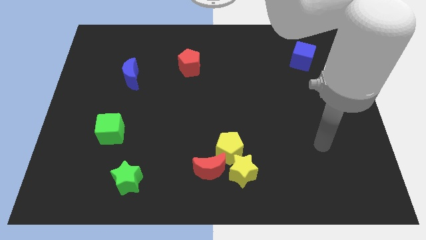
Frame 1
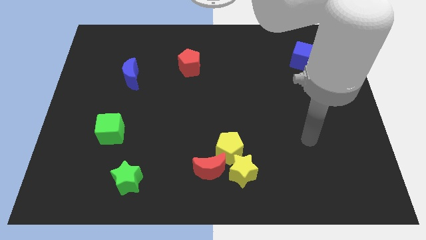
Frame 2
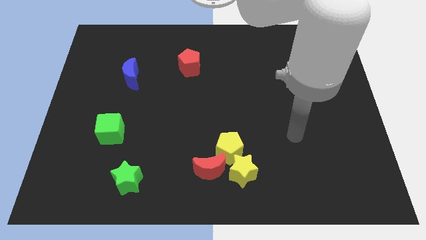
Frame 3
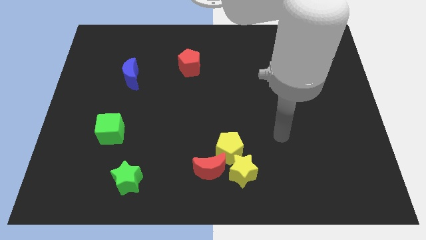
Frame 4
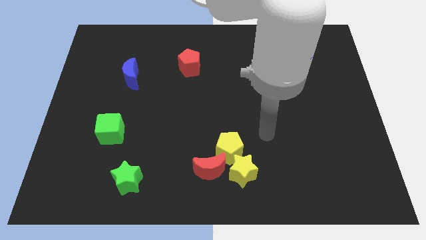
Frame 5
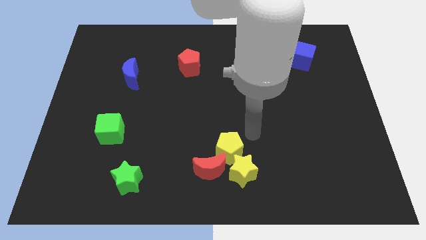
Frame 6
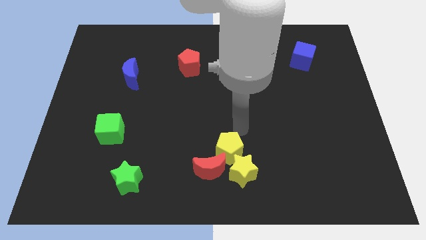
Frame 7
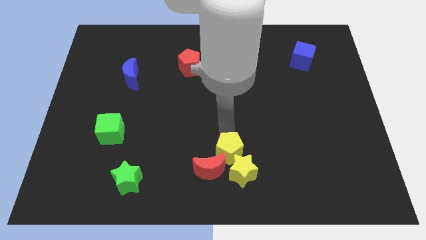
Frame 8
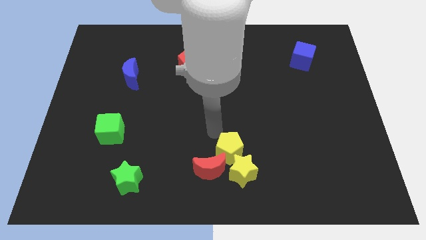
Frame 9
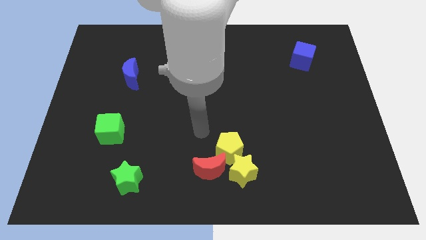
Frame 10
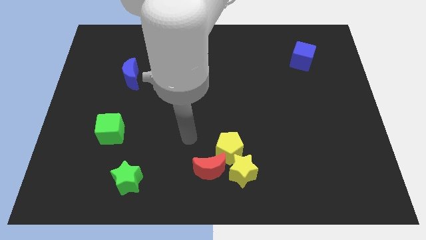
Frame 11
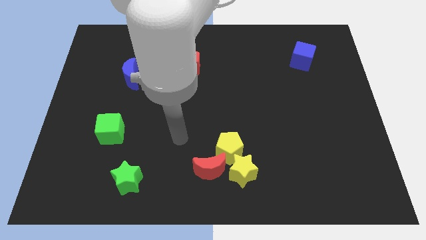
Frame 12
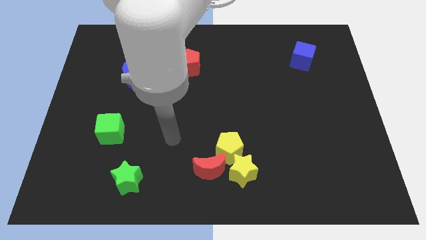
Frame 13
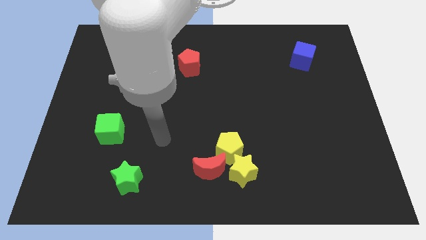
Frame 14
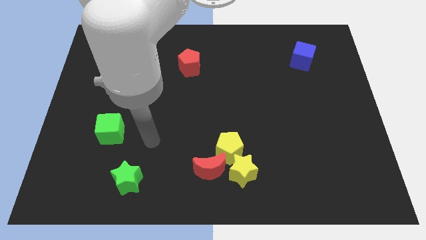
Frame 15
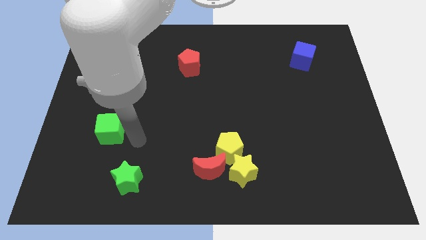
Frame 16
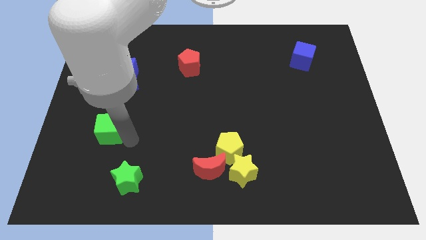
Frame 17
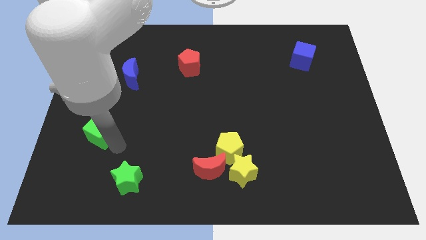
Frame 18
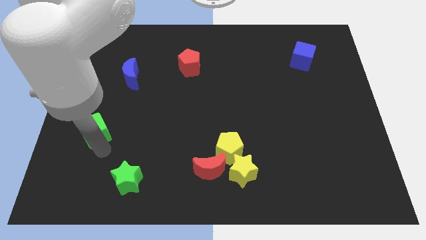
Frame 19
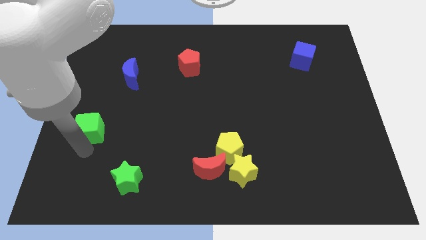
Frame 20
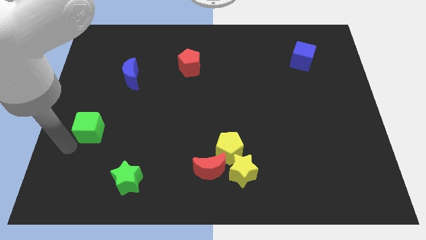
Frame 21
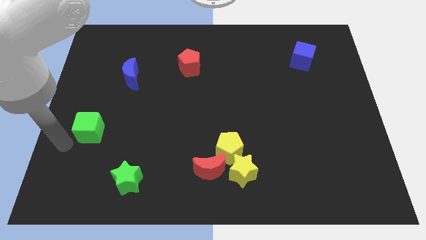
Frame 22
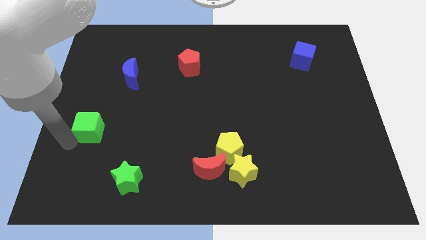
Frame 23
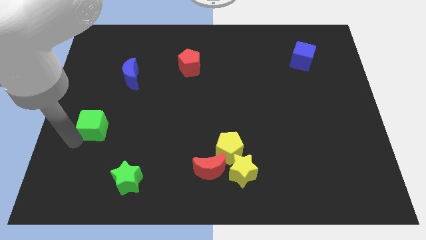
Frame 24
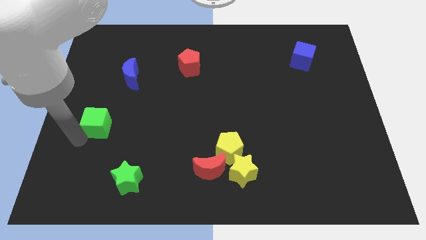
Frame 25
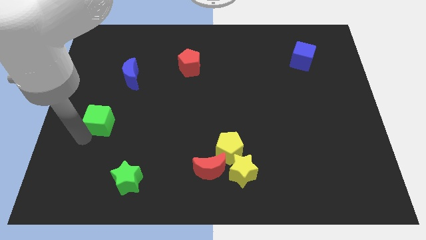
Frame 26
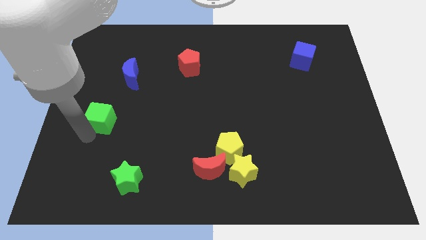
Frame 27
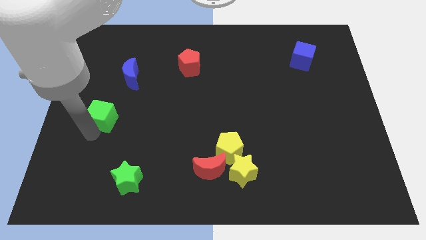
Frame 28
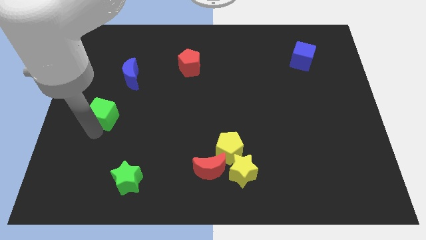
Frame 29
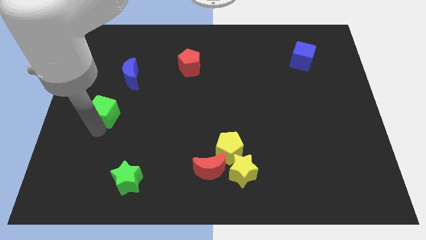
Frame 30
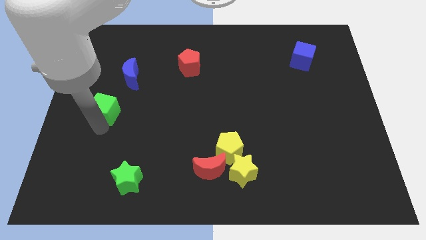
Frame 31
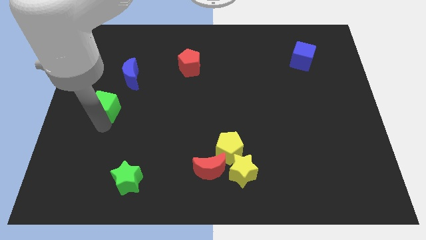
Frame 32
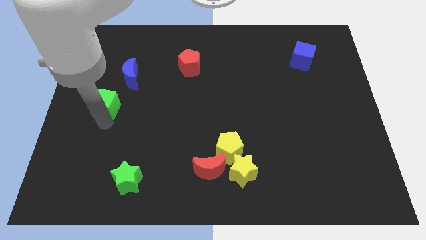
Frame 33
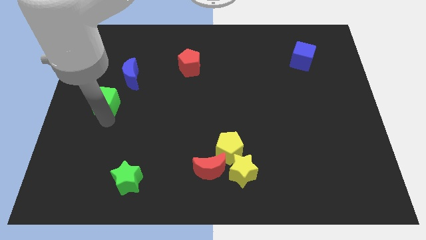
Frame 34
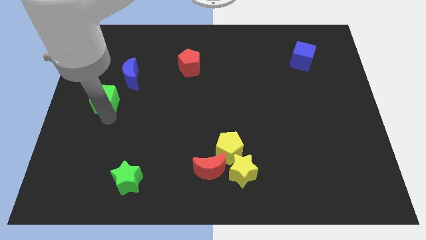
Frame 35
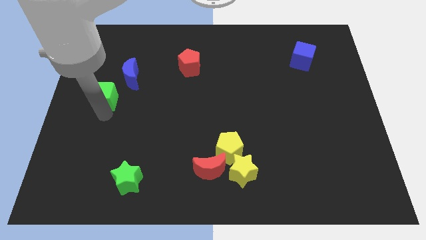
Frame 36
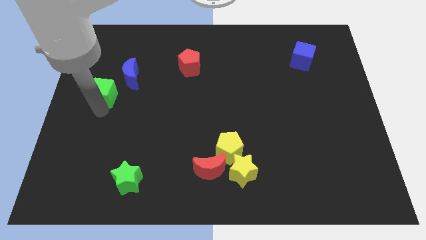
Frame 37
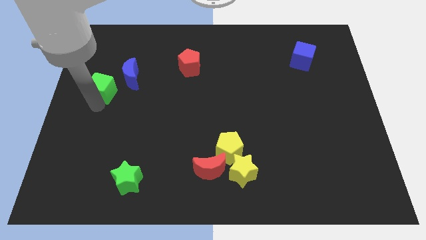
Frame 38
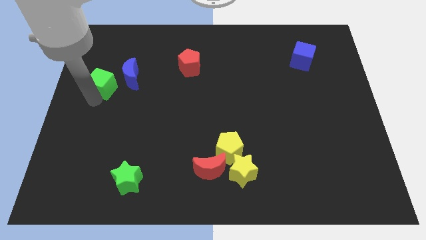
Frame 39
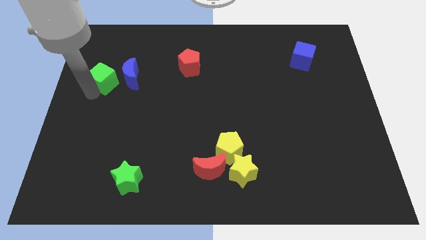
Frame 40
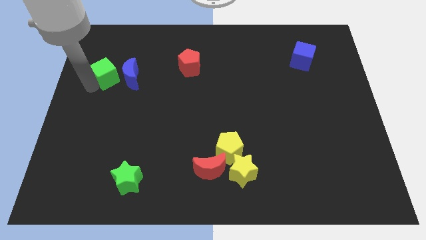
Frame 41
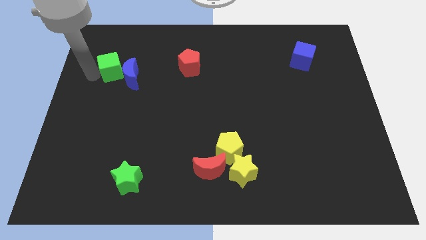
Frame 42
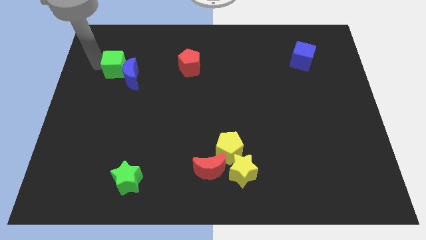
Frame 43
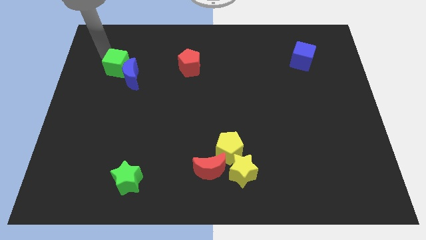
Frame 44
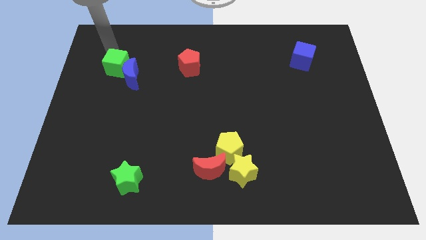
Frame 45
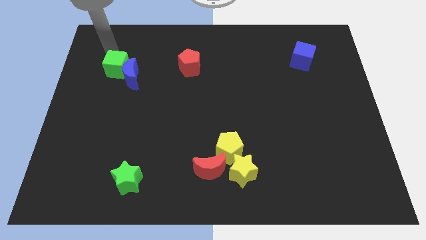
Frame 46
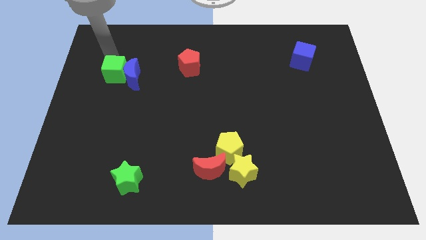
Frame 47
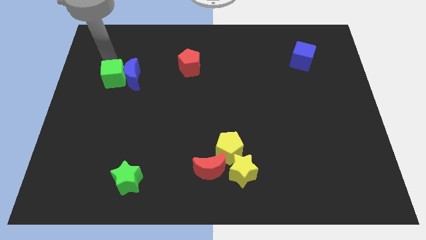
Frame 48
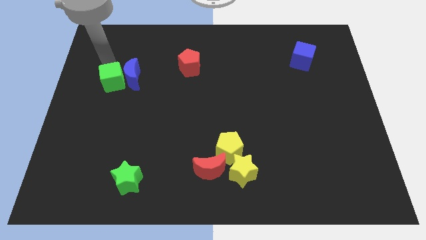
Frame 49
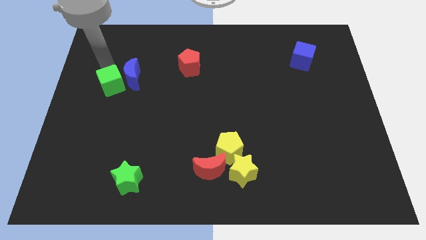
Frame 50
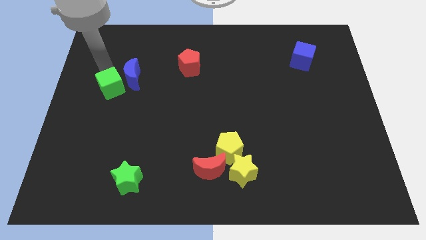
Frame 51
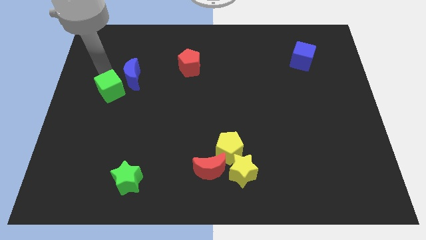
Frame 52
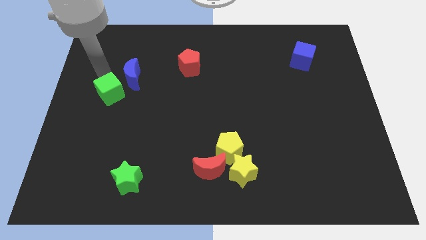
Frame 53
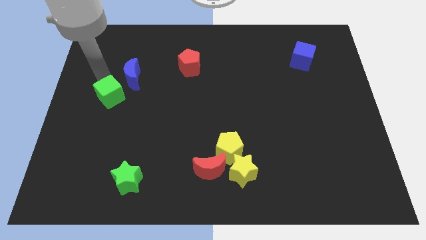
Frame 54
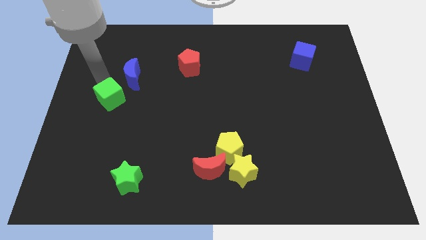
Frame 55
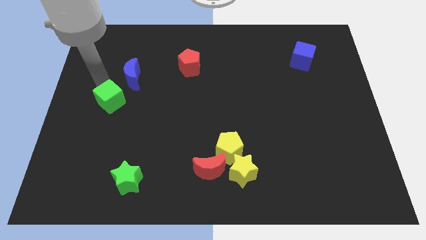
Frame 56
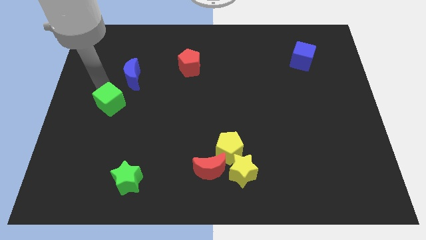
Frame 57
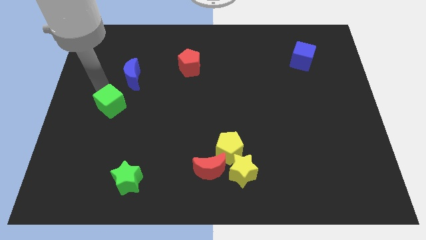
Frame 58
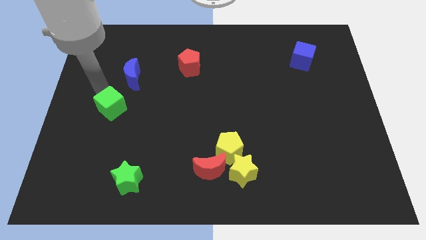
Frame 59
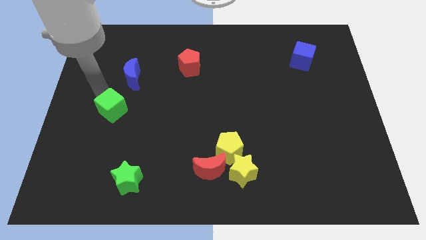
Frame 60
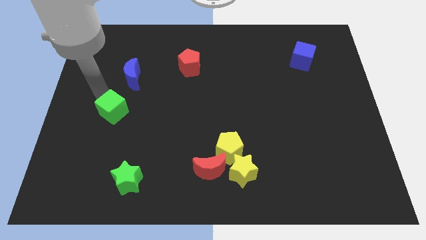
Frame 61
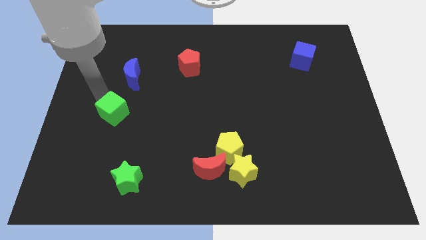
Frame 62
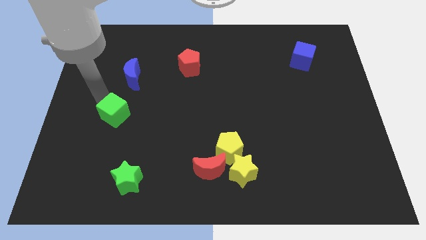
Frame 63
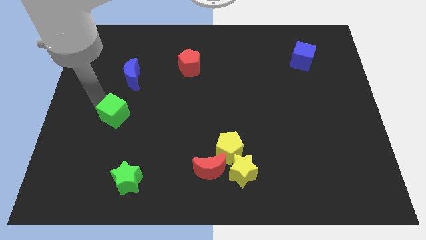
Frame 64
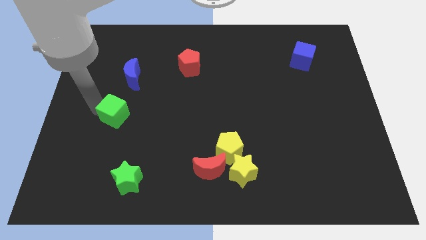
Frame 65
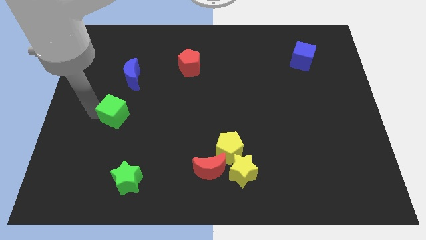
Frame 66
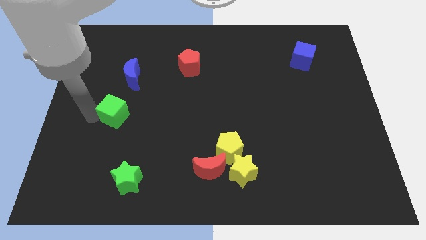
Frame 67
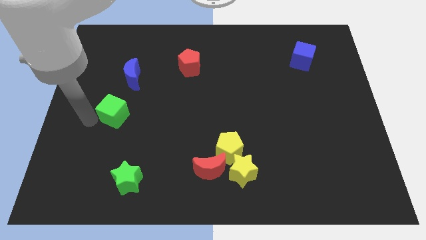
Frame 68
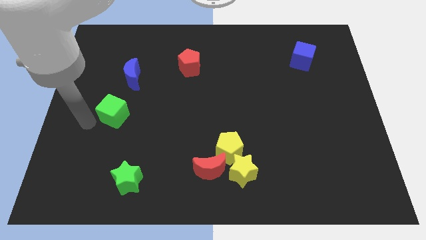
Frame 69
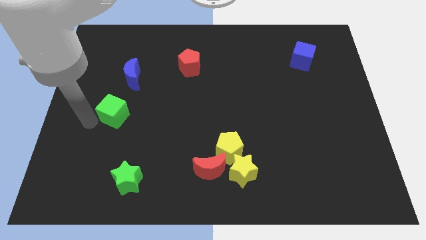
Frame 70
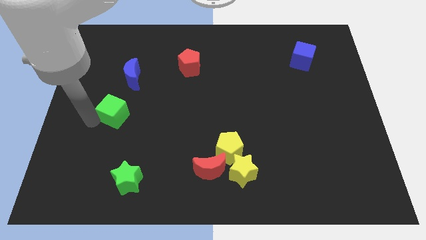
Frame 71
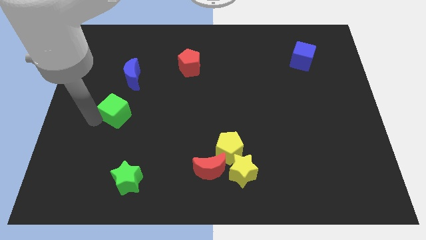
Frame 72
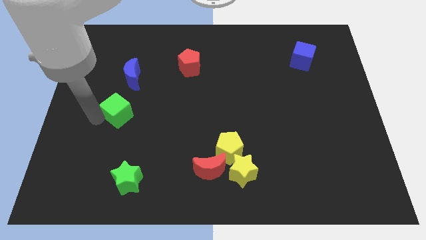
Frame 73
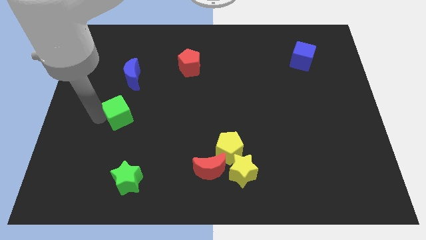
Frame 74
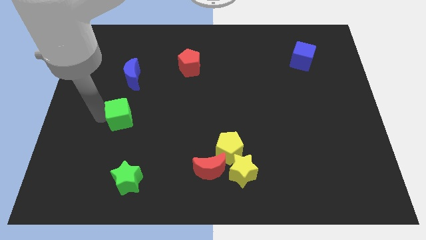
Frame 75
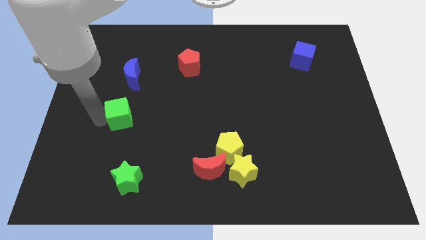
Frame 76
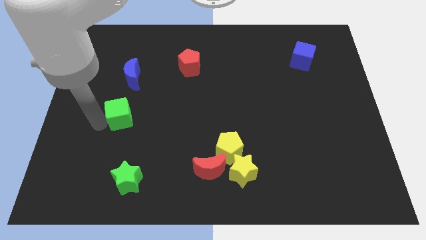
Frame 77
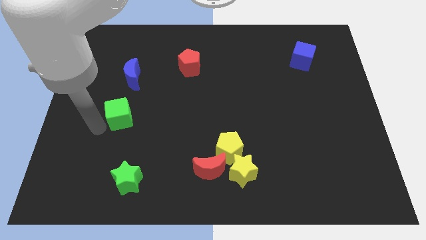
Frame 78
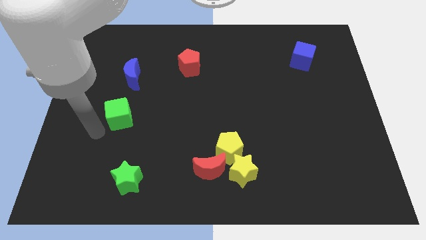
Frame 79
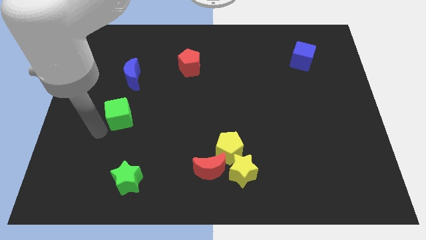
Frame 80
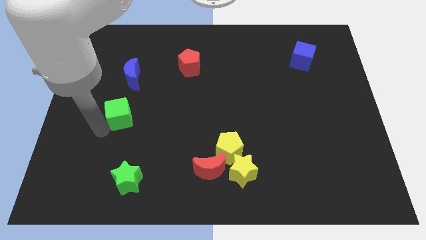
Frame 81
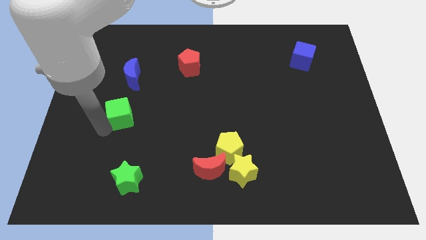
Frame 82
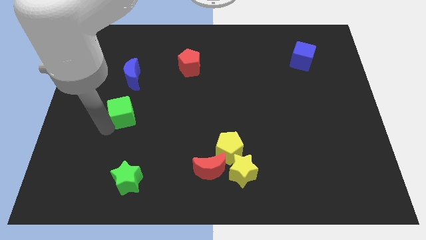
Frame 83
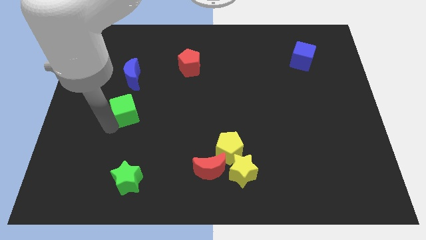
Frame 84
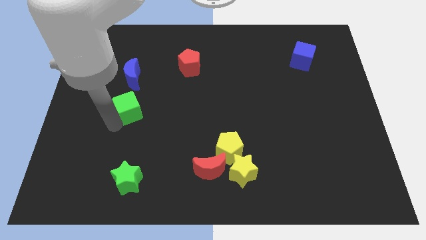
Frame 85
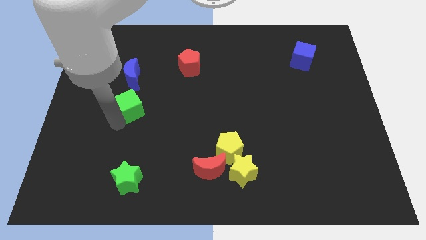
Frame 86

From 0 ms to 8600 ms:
slightly push the green cube up and to the right diagonally
